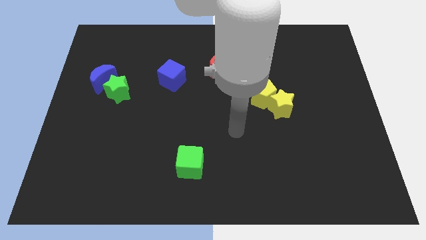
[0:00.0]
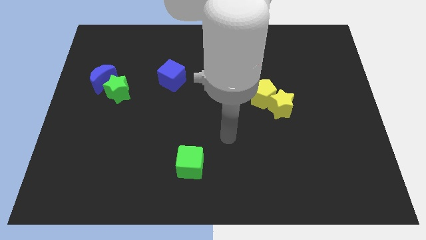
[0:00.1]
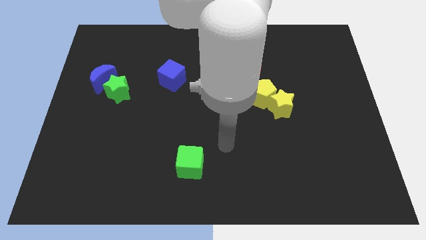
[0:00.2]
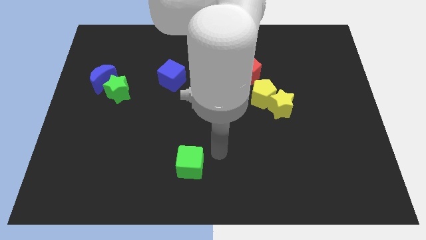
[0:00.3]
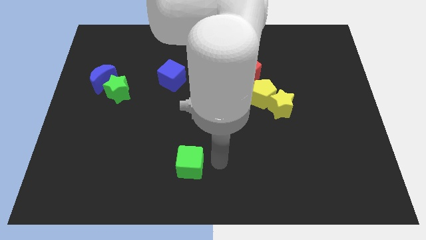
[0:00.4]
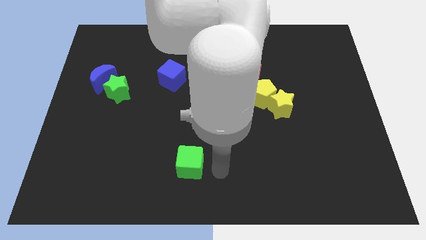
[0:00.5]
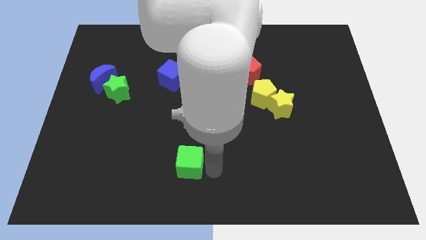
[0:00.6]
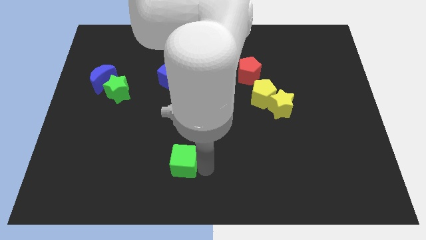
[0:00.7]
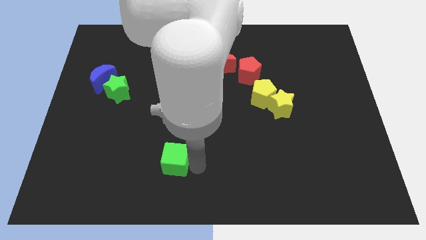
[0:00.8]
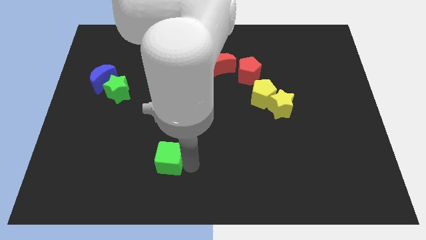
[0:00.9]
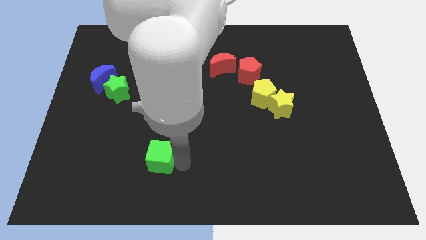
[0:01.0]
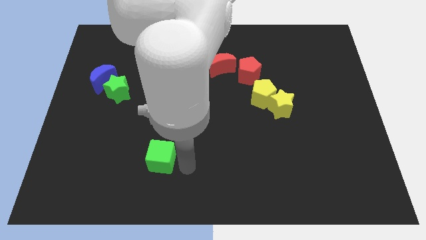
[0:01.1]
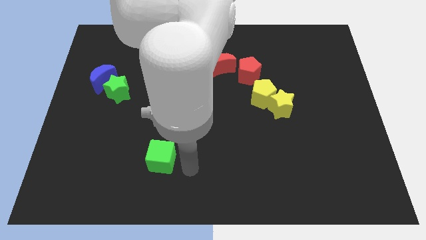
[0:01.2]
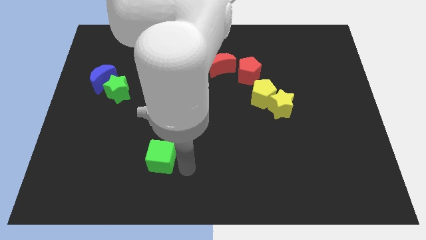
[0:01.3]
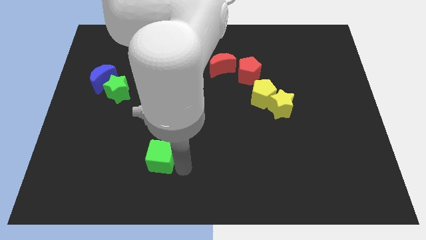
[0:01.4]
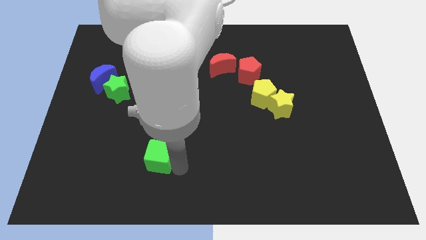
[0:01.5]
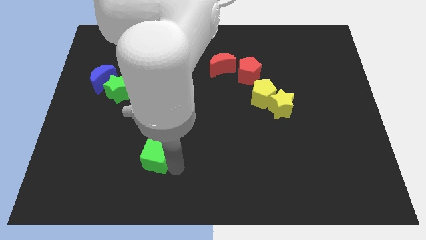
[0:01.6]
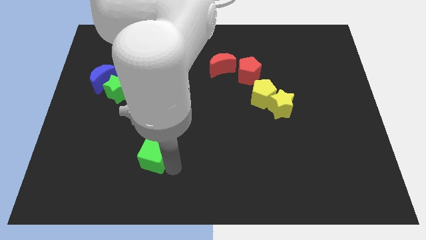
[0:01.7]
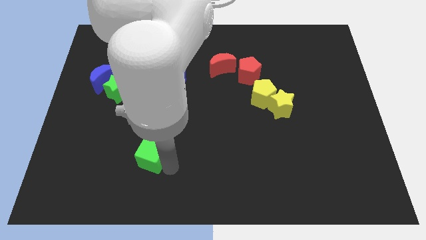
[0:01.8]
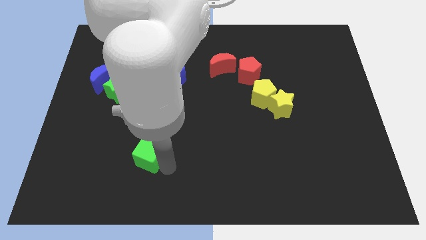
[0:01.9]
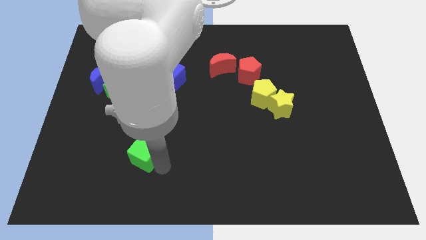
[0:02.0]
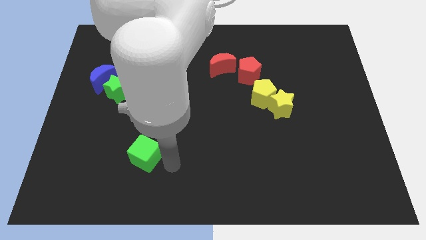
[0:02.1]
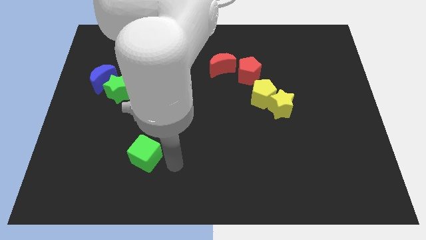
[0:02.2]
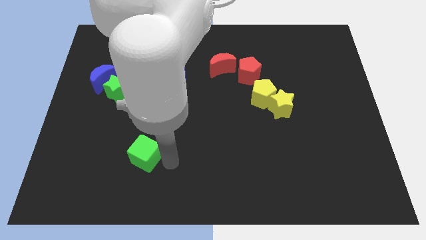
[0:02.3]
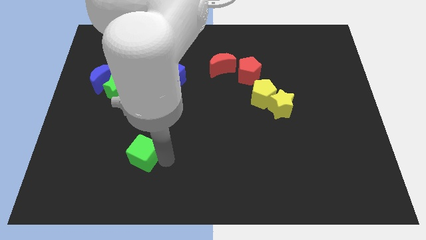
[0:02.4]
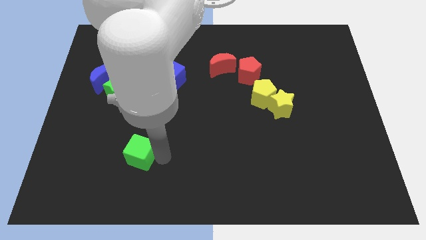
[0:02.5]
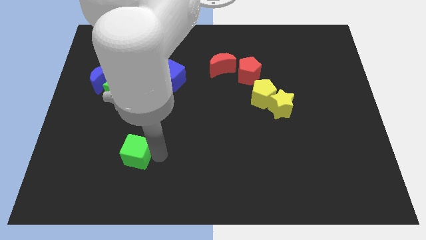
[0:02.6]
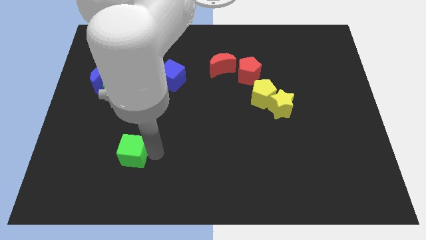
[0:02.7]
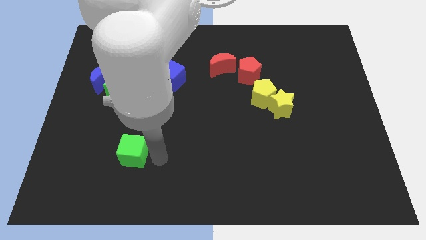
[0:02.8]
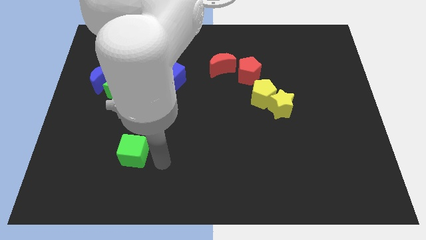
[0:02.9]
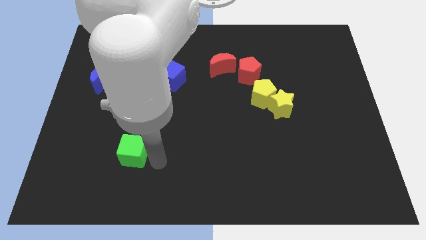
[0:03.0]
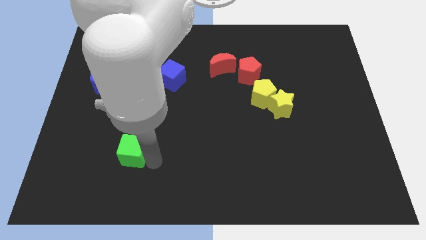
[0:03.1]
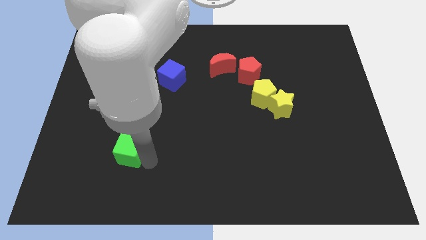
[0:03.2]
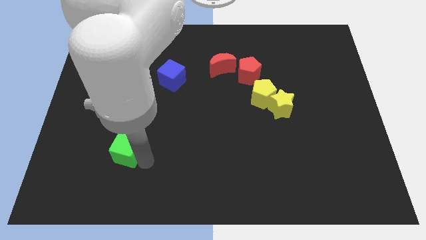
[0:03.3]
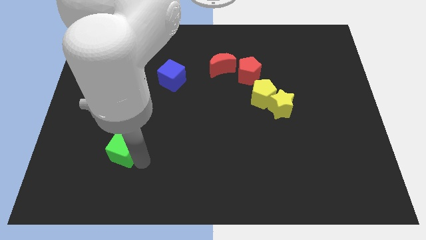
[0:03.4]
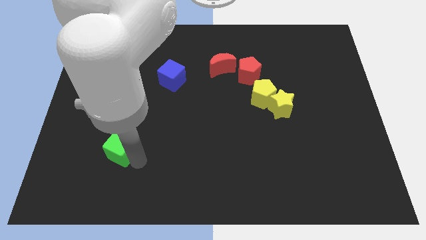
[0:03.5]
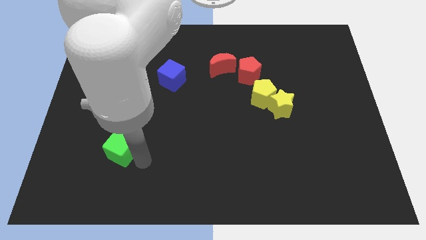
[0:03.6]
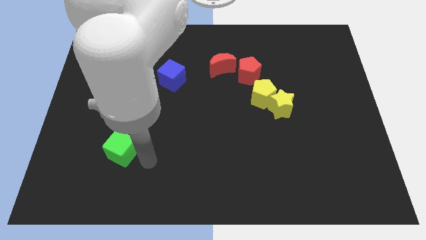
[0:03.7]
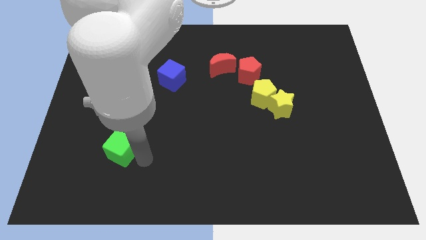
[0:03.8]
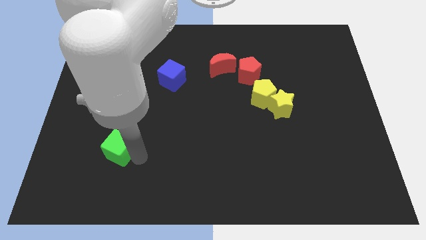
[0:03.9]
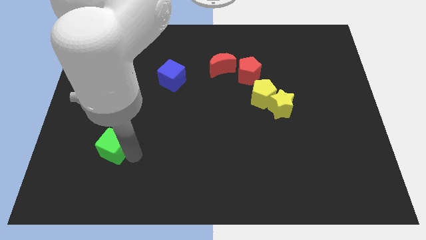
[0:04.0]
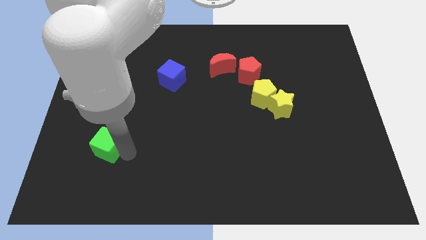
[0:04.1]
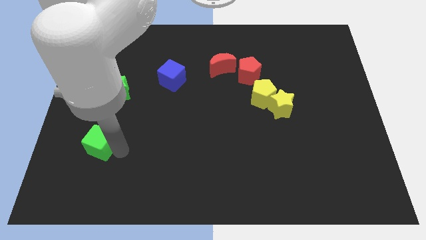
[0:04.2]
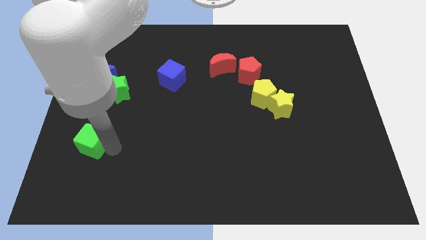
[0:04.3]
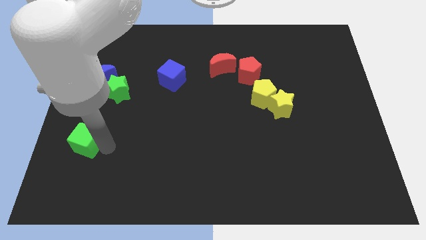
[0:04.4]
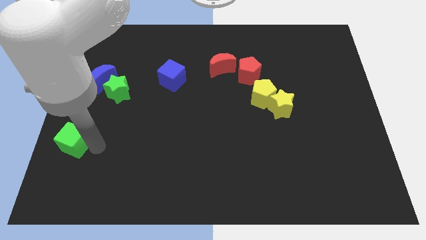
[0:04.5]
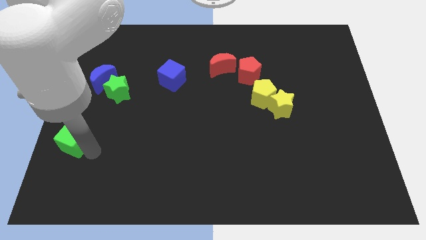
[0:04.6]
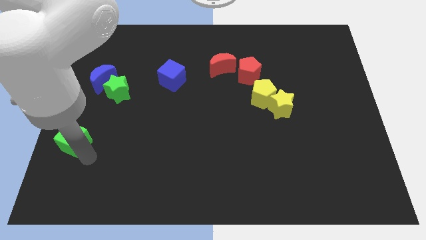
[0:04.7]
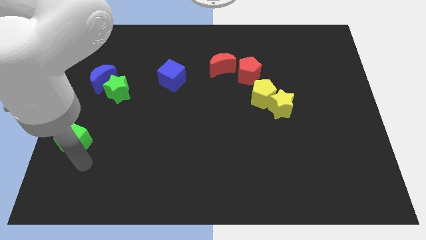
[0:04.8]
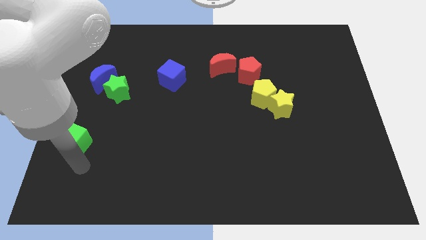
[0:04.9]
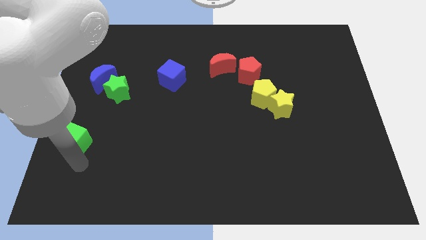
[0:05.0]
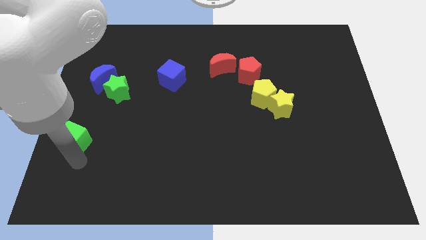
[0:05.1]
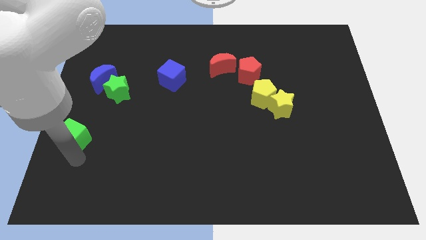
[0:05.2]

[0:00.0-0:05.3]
put the green cube to the left side of the board
